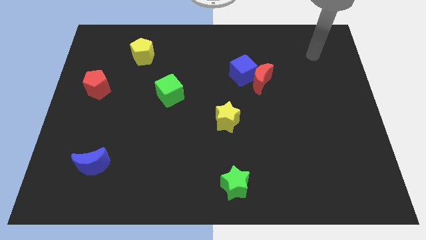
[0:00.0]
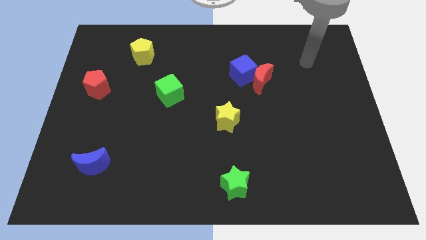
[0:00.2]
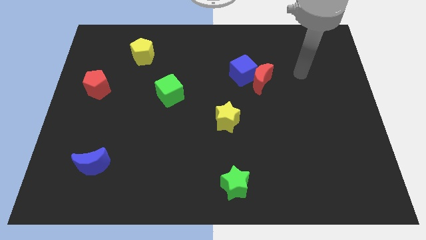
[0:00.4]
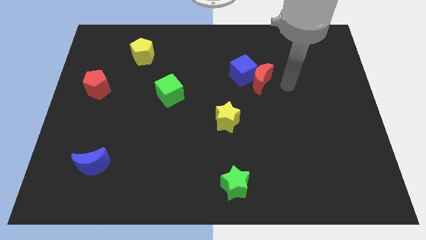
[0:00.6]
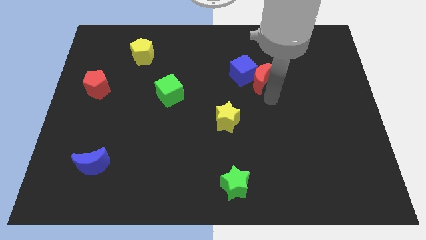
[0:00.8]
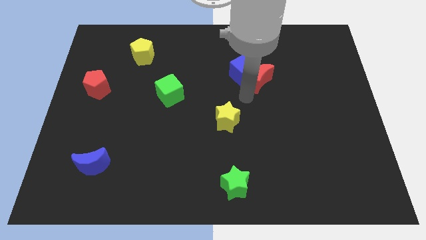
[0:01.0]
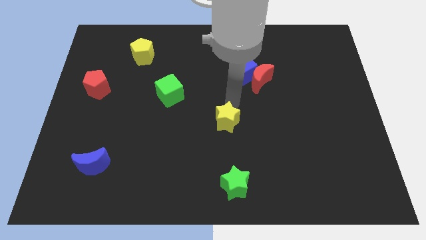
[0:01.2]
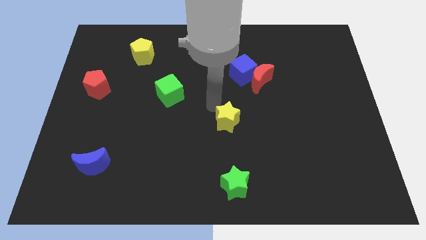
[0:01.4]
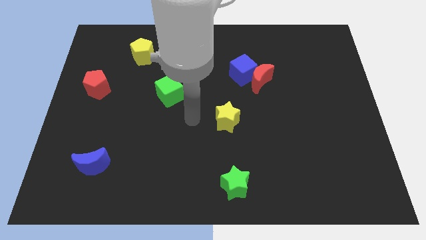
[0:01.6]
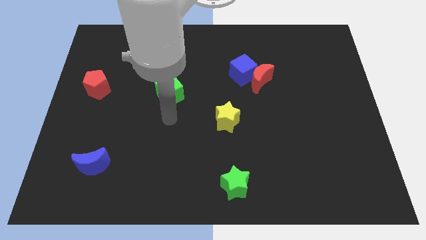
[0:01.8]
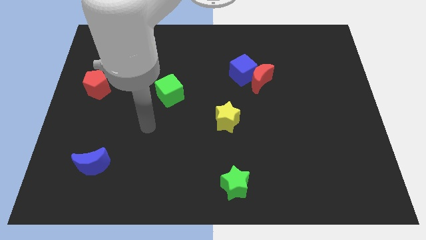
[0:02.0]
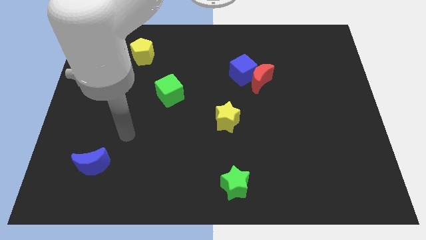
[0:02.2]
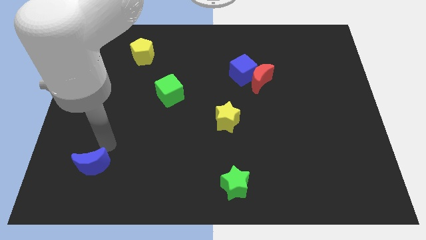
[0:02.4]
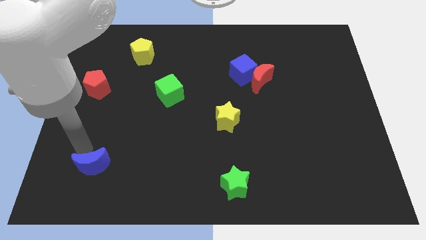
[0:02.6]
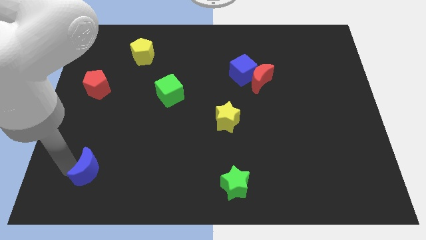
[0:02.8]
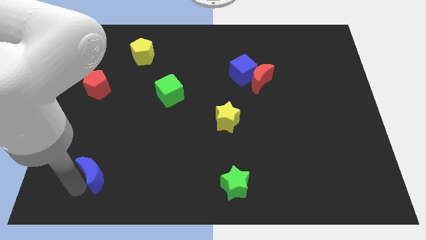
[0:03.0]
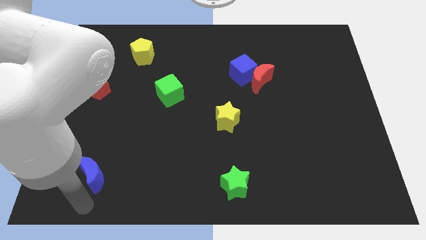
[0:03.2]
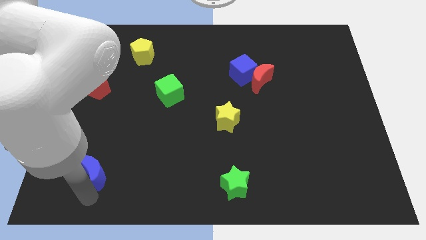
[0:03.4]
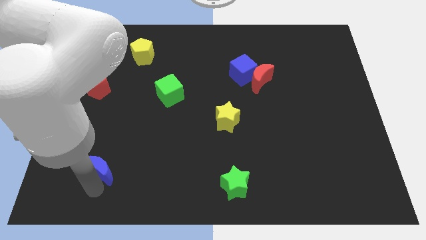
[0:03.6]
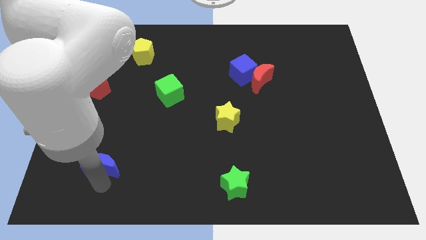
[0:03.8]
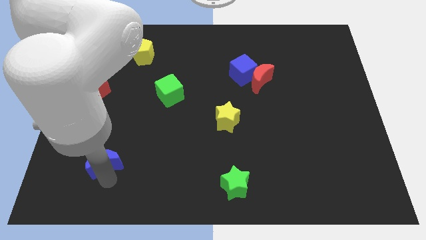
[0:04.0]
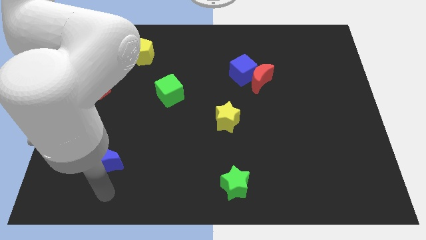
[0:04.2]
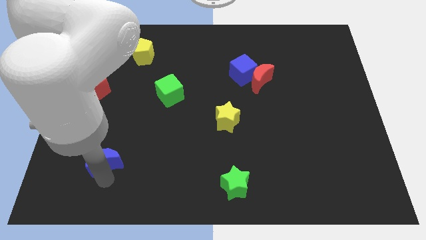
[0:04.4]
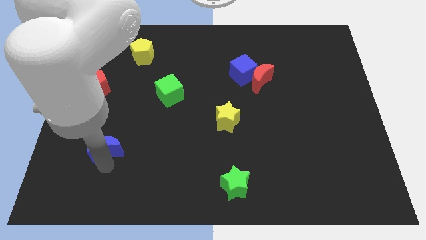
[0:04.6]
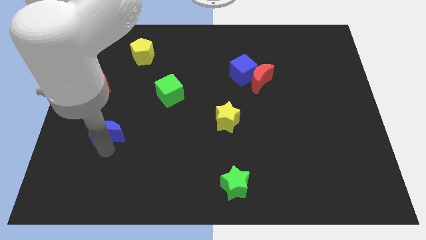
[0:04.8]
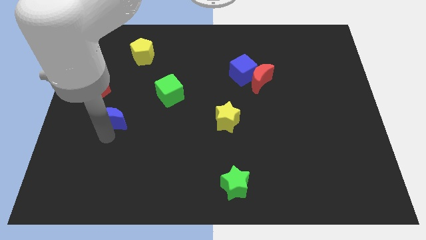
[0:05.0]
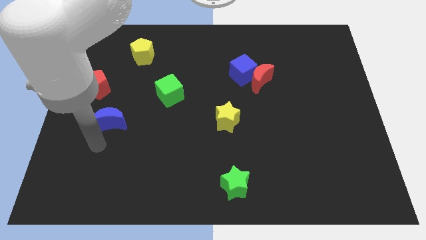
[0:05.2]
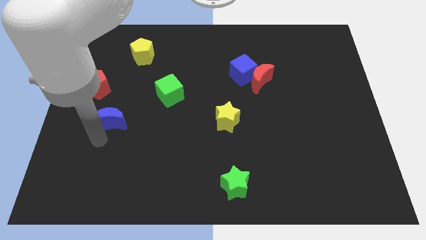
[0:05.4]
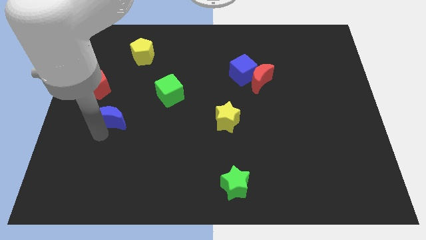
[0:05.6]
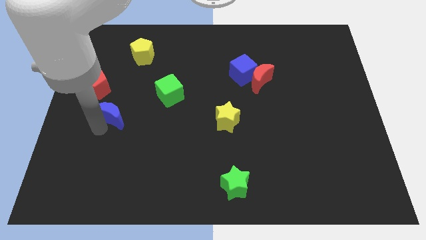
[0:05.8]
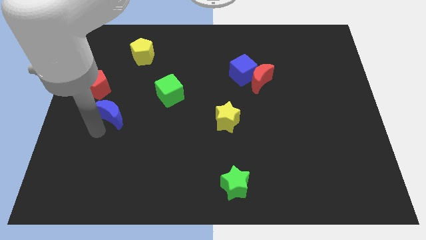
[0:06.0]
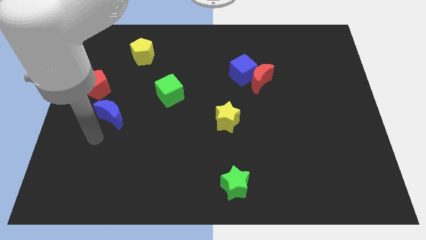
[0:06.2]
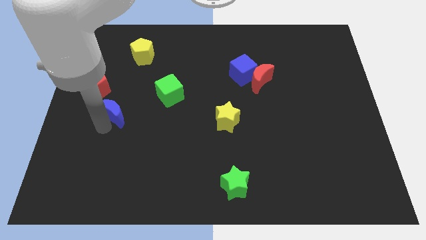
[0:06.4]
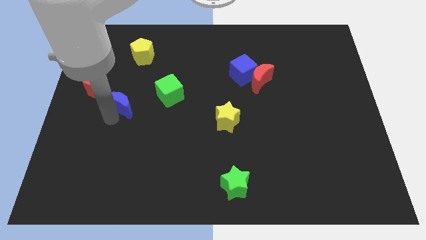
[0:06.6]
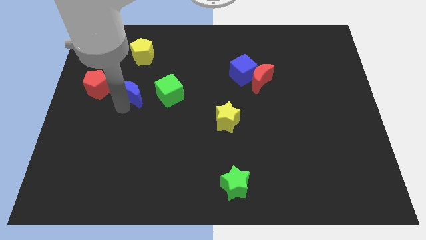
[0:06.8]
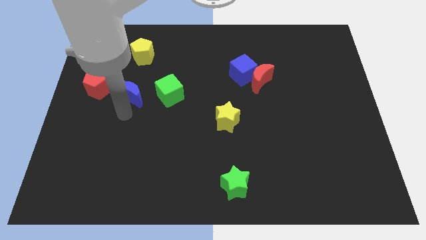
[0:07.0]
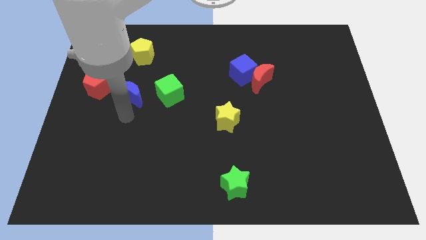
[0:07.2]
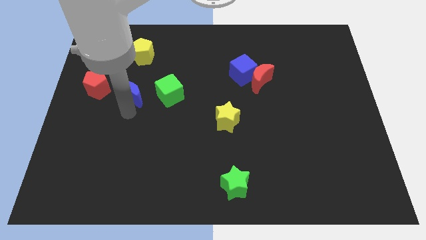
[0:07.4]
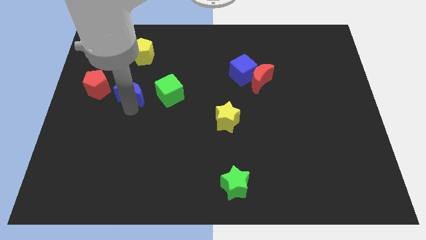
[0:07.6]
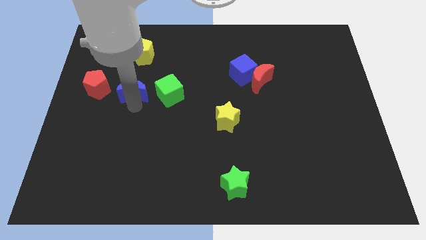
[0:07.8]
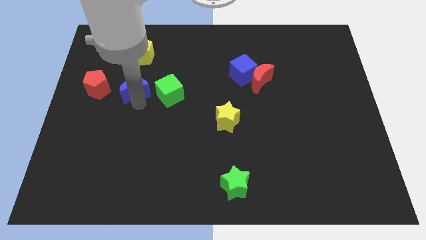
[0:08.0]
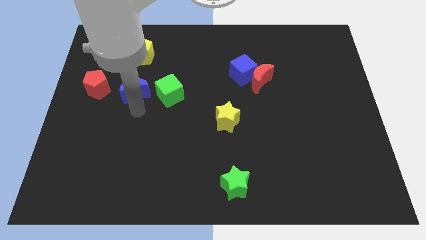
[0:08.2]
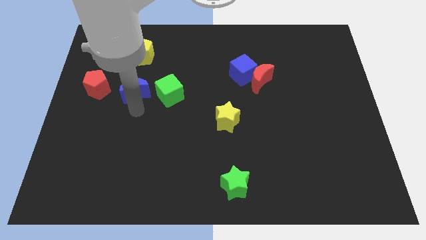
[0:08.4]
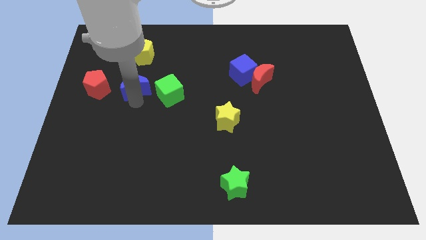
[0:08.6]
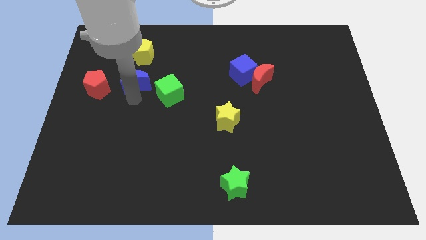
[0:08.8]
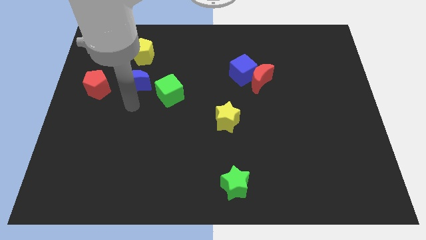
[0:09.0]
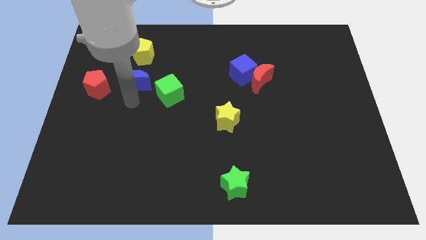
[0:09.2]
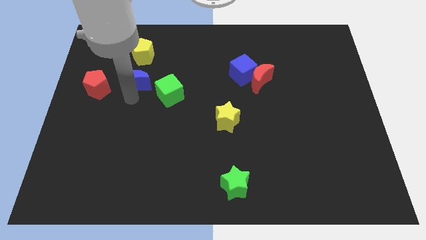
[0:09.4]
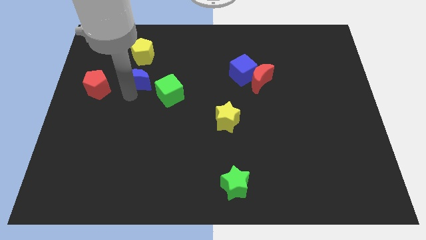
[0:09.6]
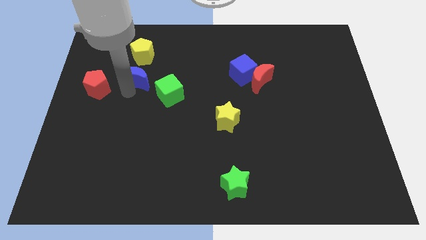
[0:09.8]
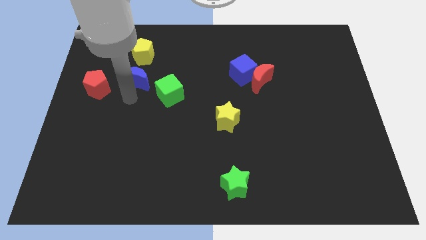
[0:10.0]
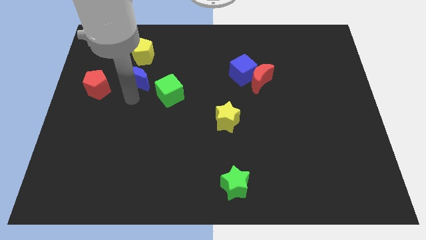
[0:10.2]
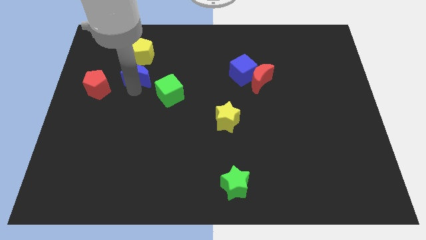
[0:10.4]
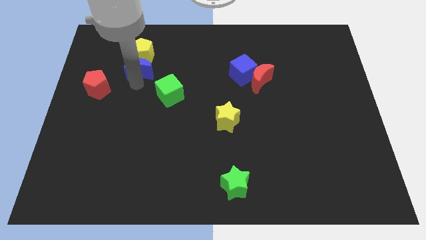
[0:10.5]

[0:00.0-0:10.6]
slide the blue moon next to the yellow pentagon

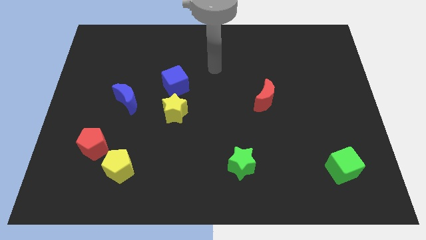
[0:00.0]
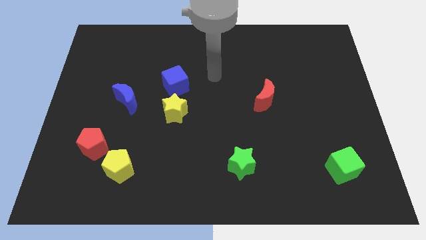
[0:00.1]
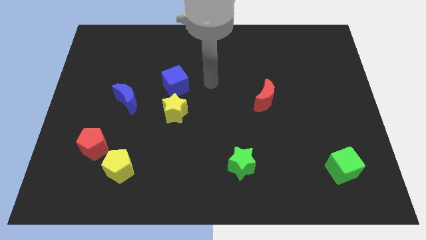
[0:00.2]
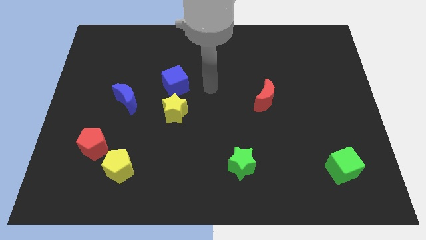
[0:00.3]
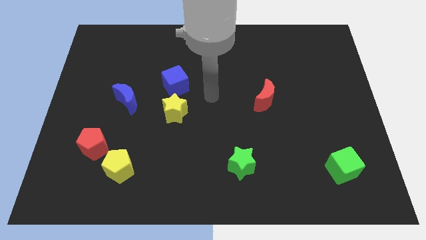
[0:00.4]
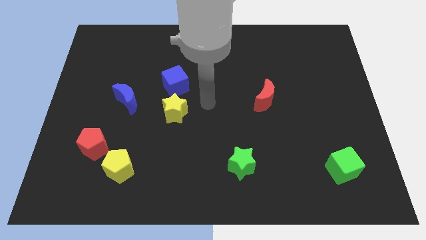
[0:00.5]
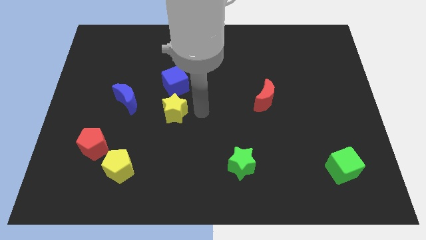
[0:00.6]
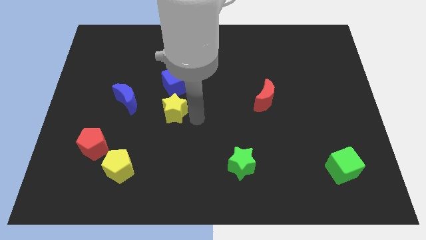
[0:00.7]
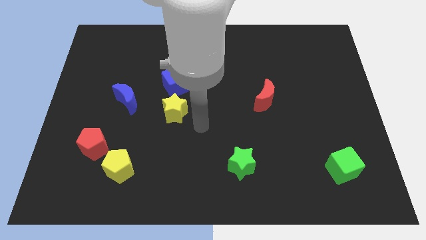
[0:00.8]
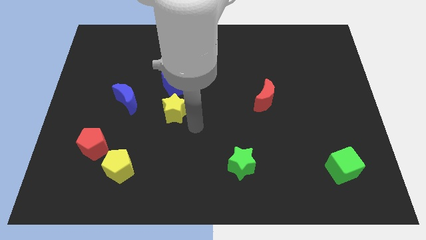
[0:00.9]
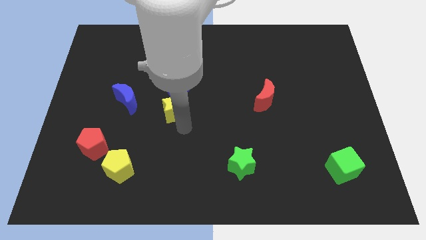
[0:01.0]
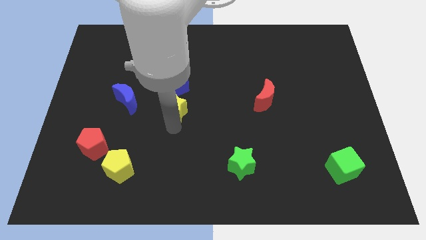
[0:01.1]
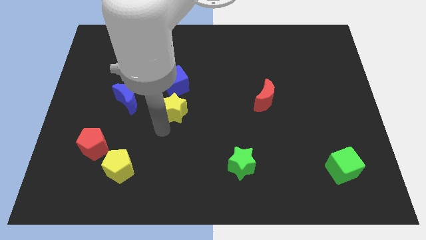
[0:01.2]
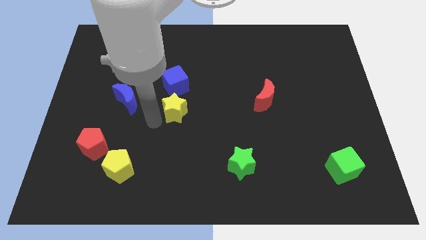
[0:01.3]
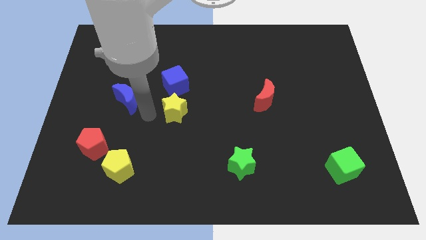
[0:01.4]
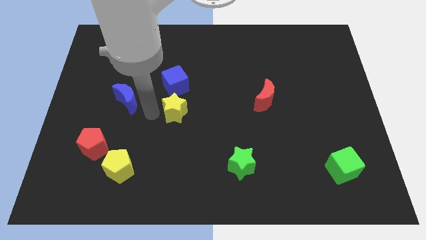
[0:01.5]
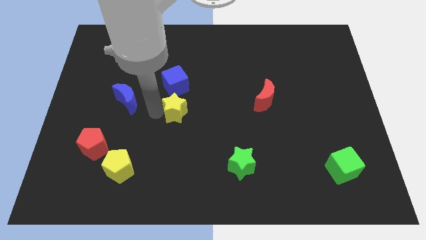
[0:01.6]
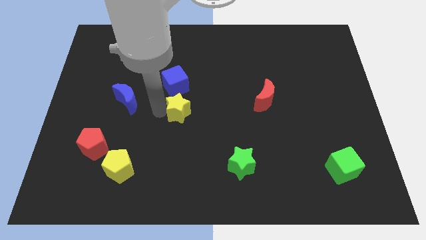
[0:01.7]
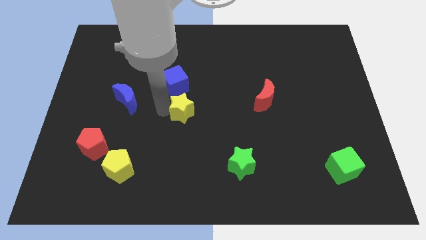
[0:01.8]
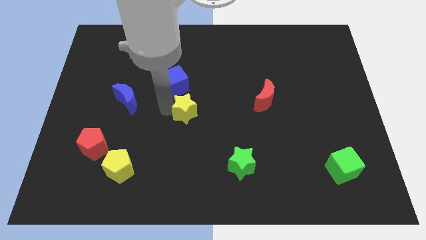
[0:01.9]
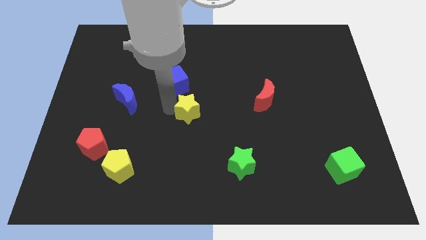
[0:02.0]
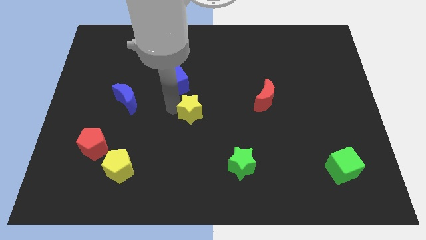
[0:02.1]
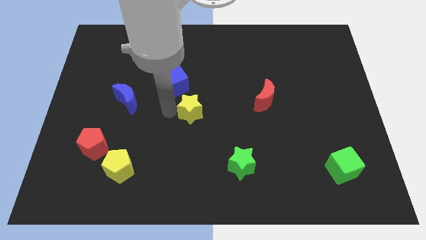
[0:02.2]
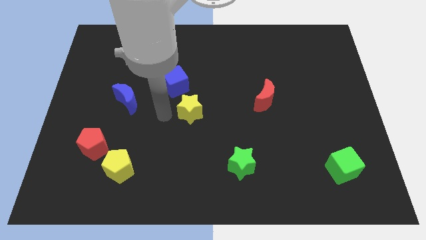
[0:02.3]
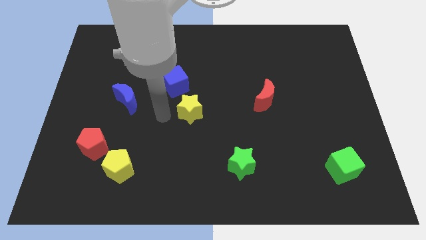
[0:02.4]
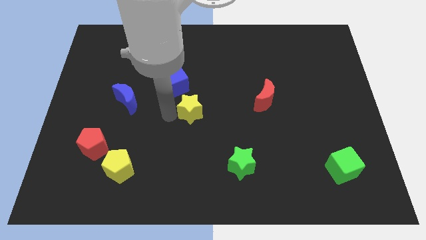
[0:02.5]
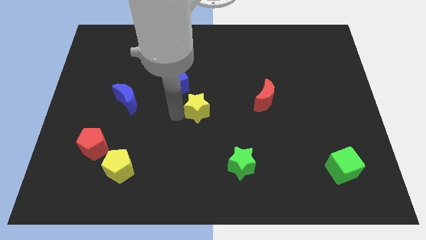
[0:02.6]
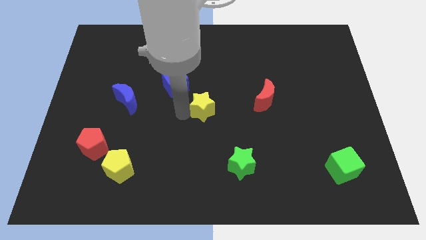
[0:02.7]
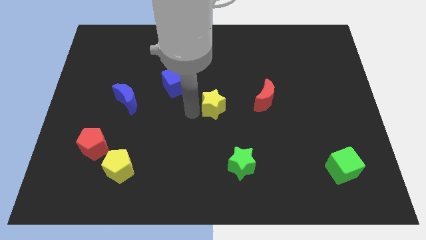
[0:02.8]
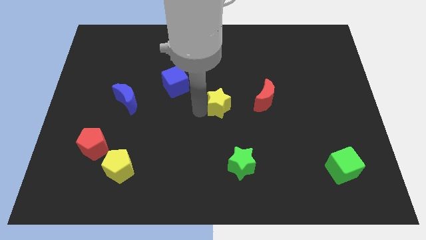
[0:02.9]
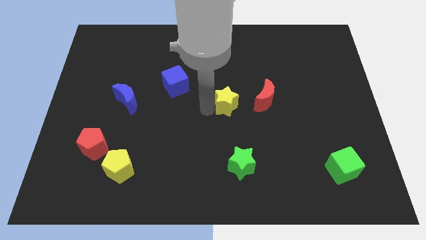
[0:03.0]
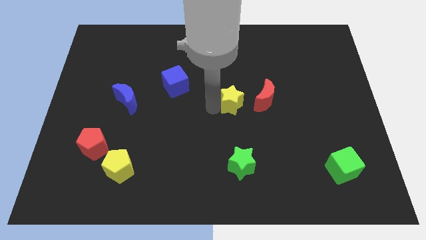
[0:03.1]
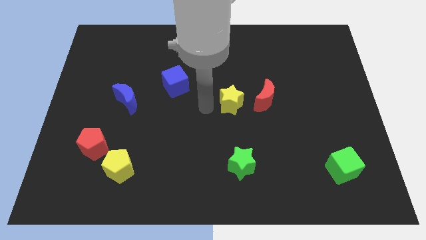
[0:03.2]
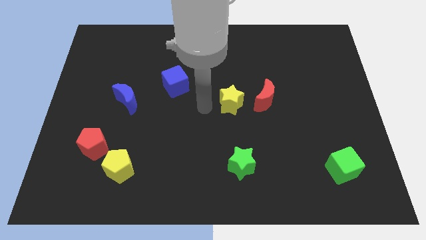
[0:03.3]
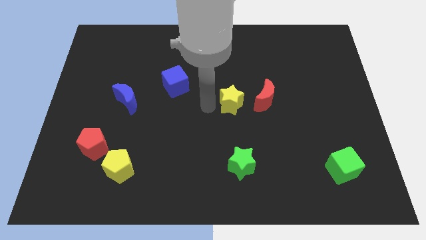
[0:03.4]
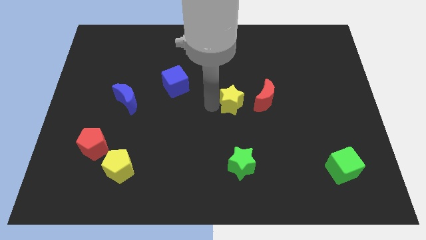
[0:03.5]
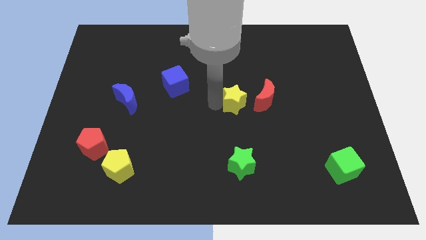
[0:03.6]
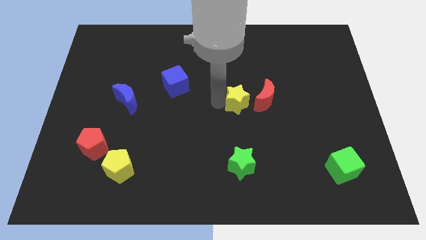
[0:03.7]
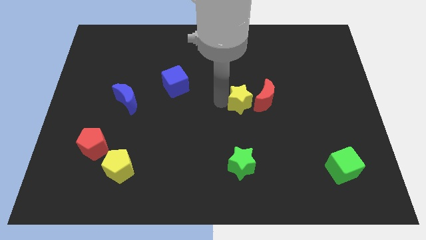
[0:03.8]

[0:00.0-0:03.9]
slide the yellow star close to the red moon
